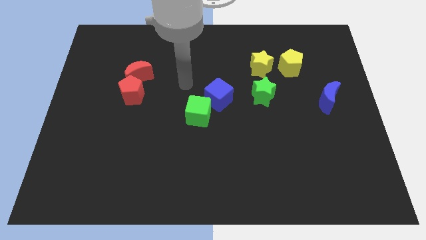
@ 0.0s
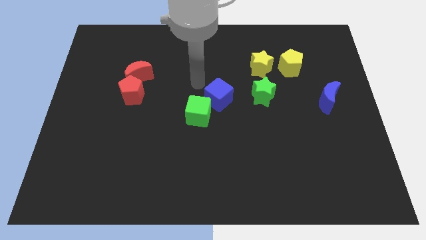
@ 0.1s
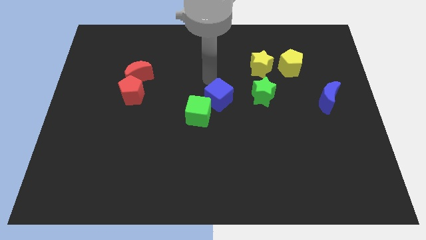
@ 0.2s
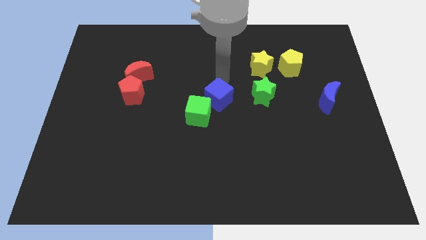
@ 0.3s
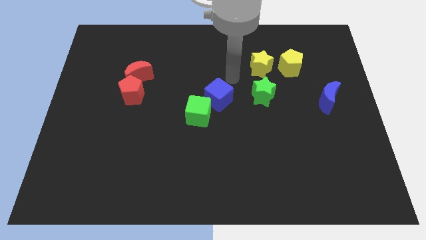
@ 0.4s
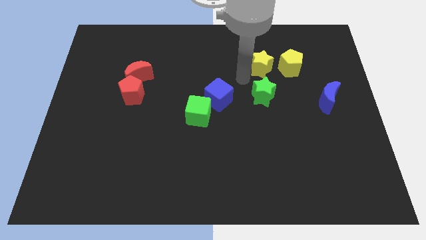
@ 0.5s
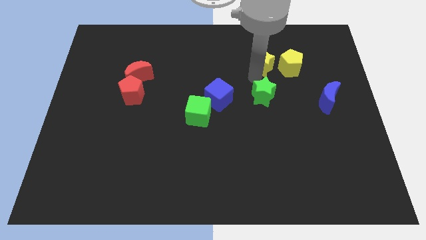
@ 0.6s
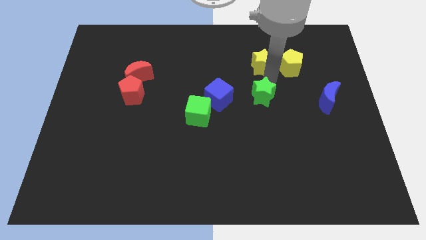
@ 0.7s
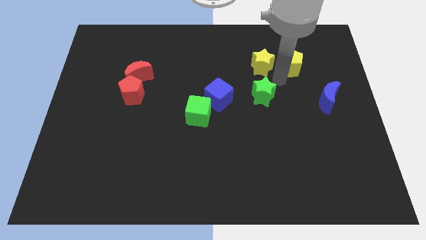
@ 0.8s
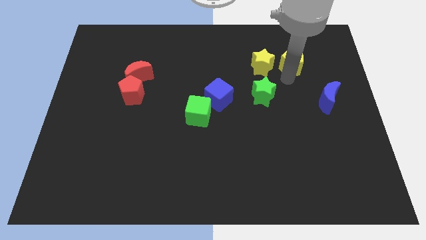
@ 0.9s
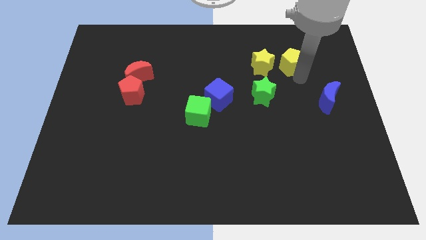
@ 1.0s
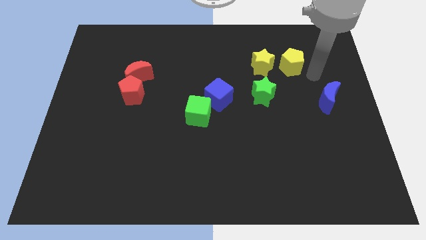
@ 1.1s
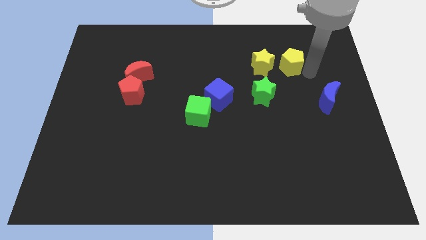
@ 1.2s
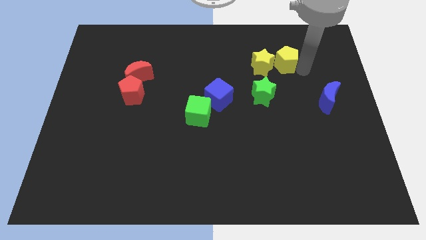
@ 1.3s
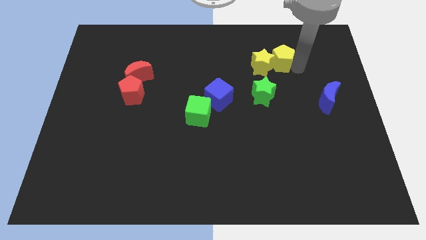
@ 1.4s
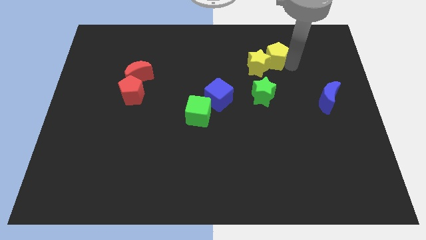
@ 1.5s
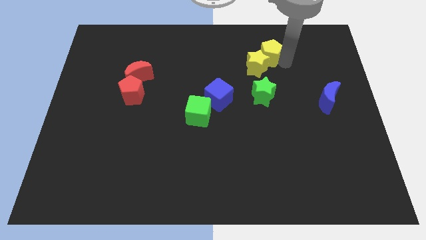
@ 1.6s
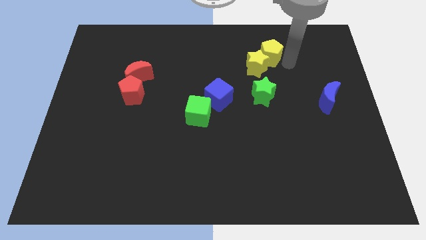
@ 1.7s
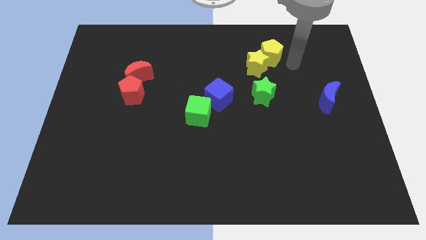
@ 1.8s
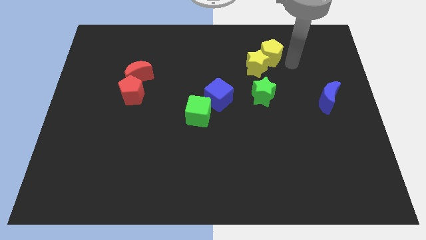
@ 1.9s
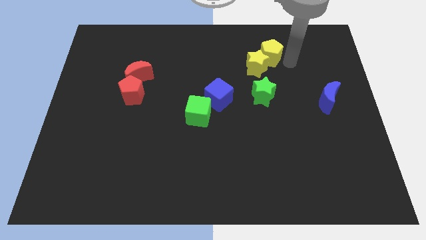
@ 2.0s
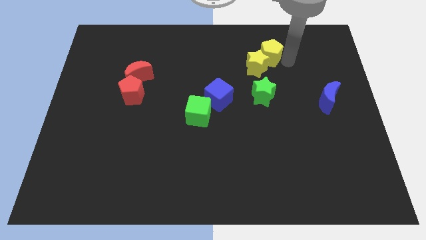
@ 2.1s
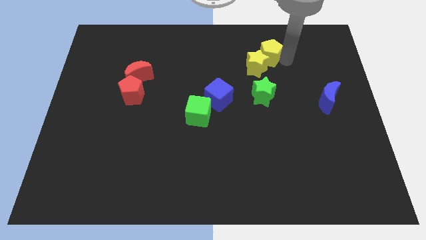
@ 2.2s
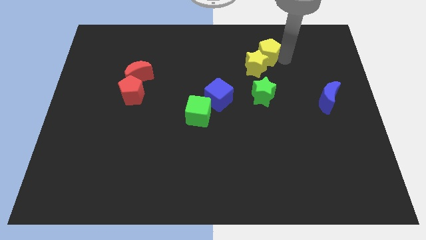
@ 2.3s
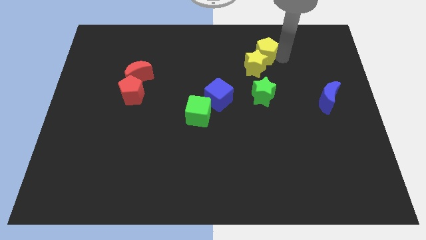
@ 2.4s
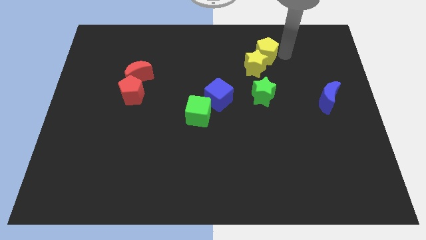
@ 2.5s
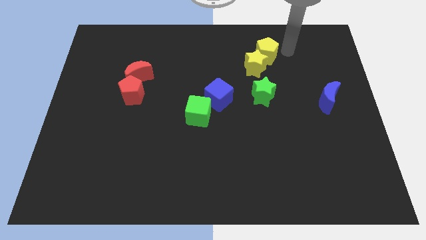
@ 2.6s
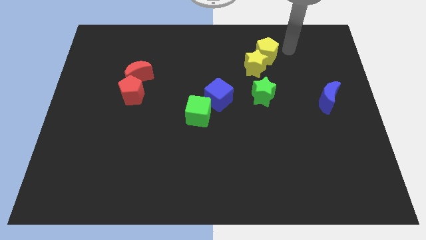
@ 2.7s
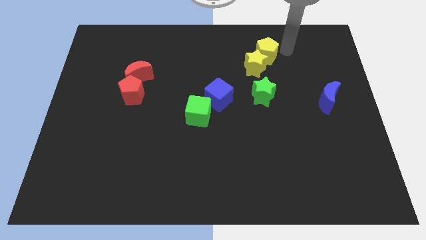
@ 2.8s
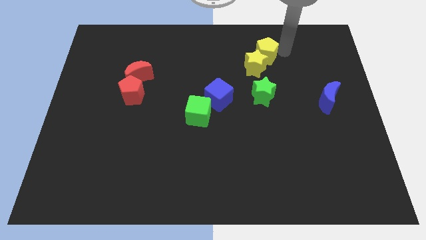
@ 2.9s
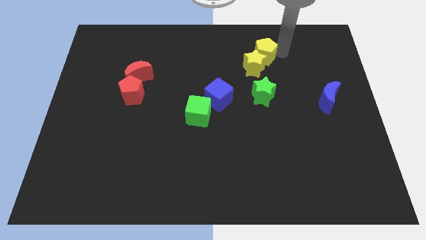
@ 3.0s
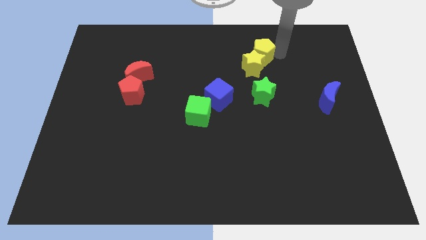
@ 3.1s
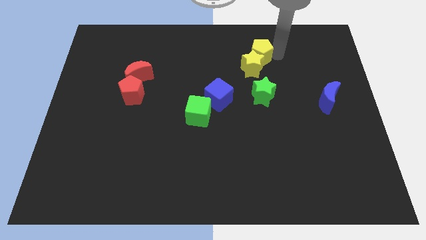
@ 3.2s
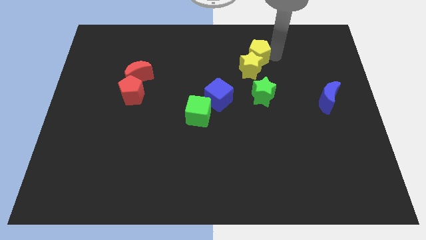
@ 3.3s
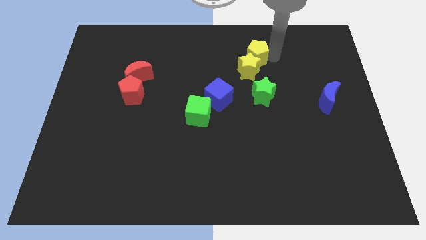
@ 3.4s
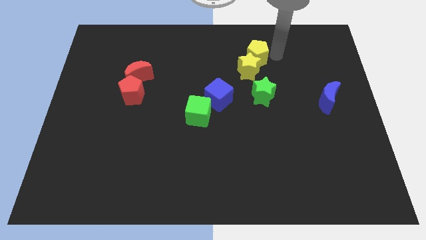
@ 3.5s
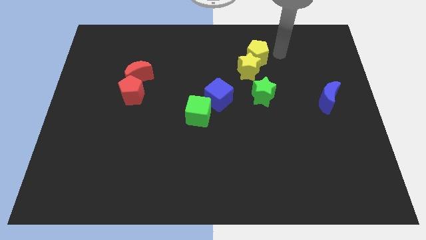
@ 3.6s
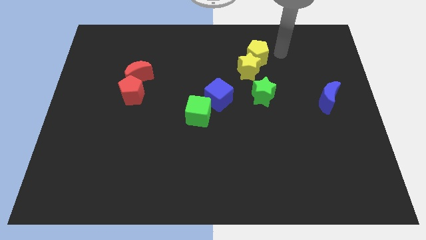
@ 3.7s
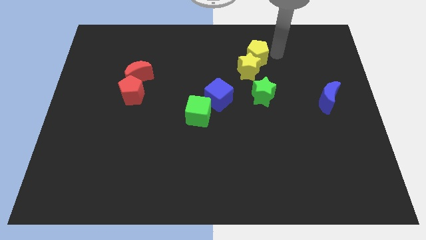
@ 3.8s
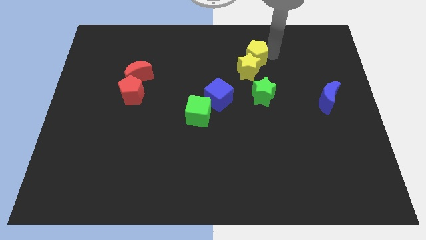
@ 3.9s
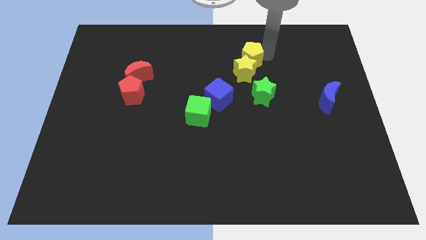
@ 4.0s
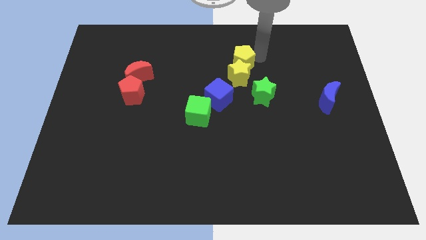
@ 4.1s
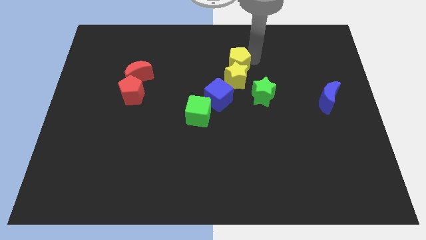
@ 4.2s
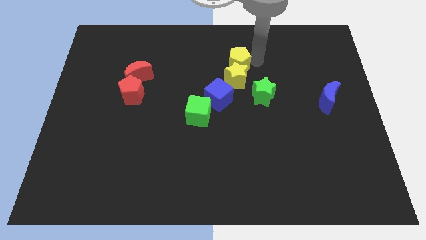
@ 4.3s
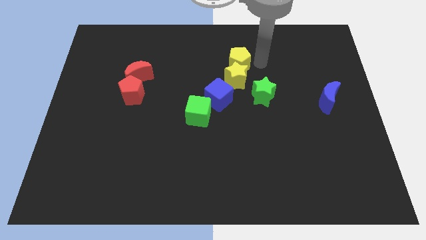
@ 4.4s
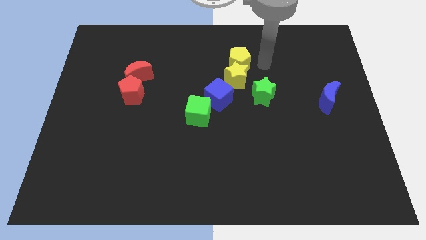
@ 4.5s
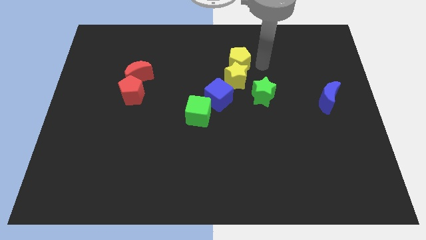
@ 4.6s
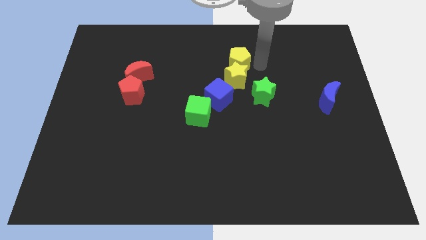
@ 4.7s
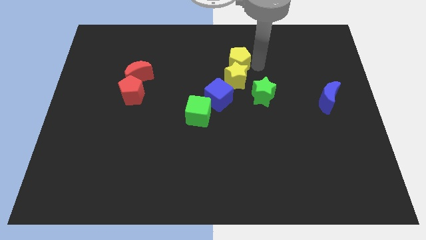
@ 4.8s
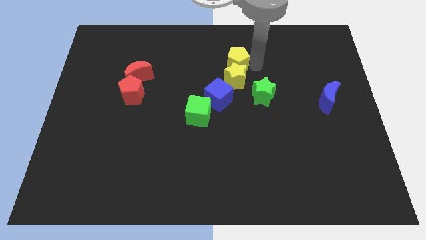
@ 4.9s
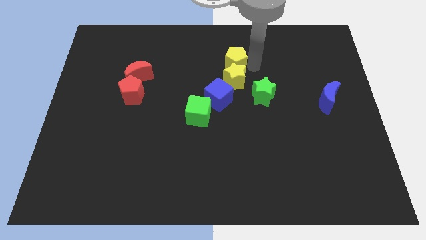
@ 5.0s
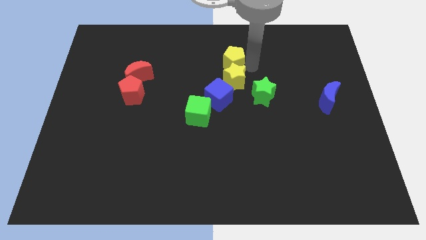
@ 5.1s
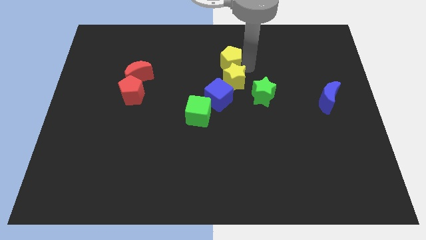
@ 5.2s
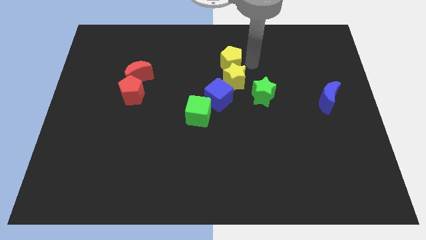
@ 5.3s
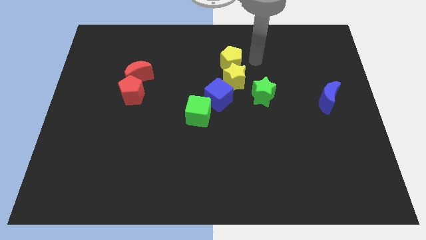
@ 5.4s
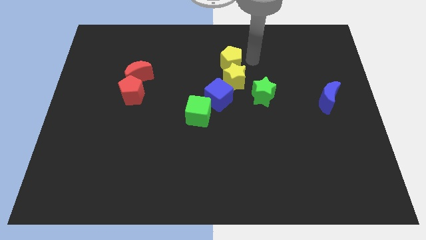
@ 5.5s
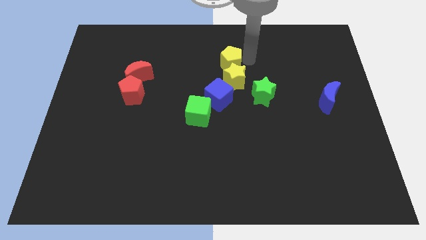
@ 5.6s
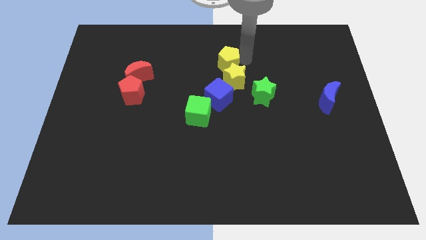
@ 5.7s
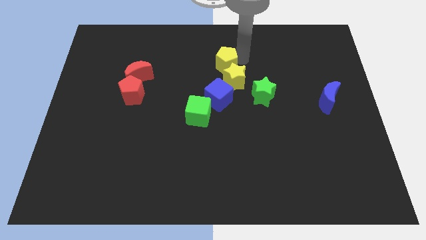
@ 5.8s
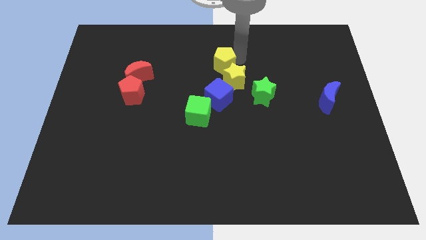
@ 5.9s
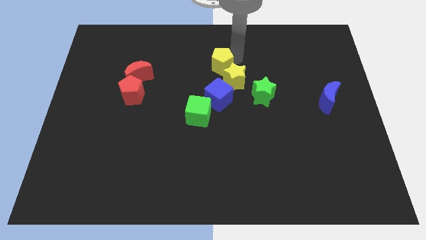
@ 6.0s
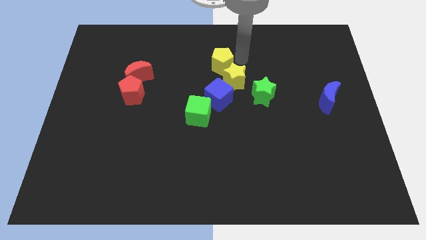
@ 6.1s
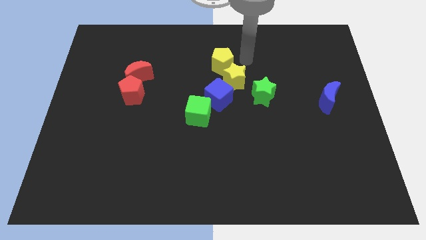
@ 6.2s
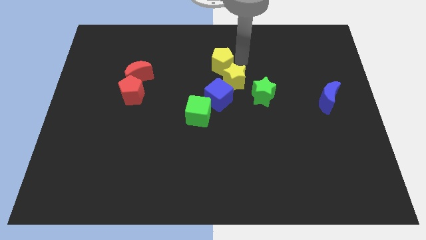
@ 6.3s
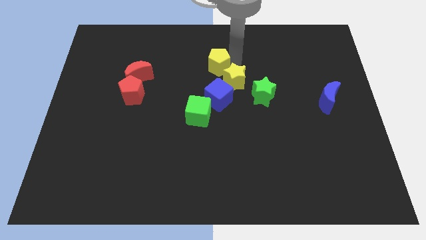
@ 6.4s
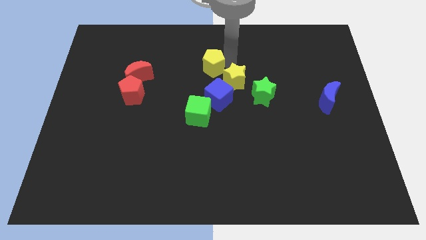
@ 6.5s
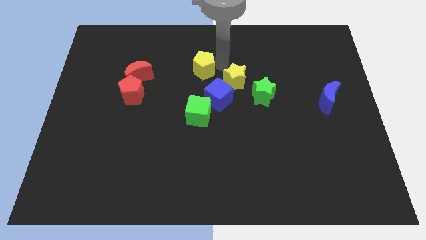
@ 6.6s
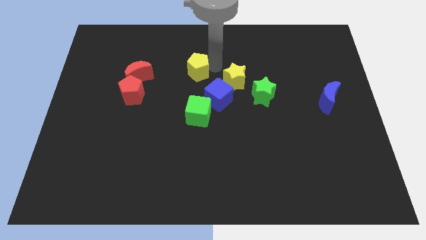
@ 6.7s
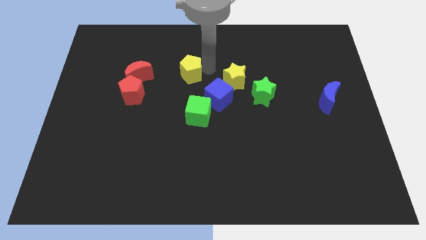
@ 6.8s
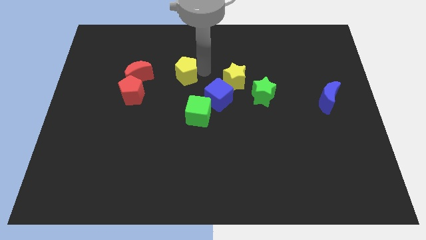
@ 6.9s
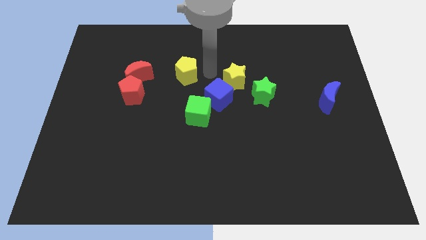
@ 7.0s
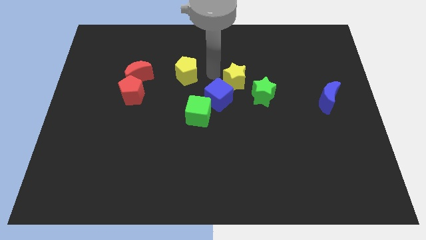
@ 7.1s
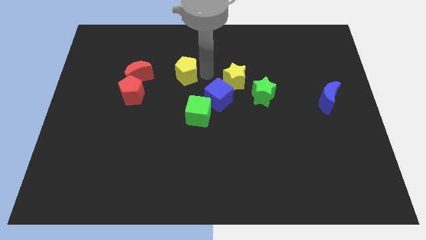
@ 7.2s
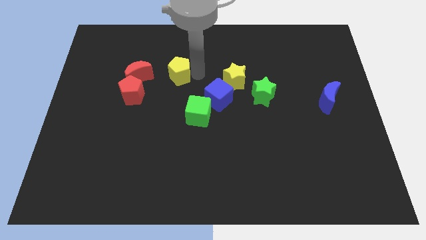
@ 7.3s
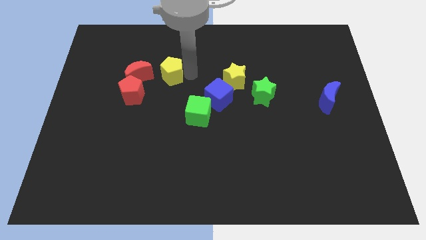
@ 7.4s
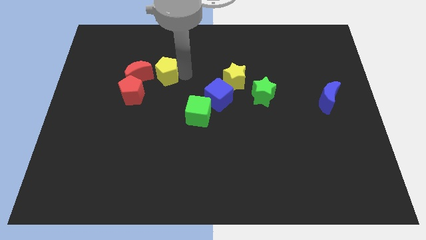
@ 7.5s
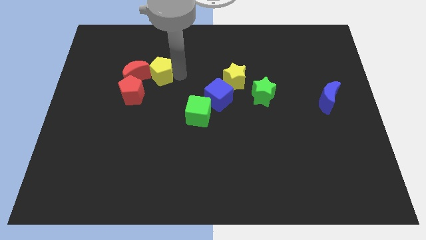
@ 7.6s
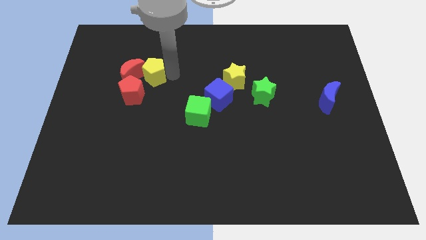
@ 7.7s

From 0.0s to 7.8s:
move the yellow pentagon next to the red moon
